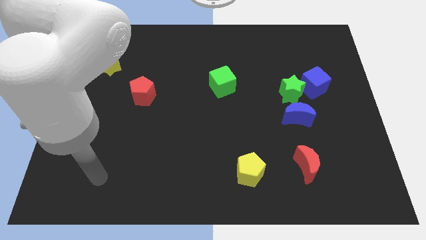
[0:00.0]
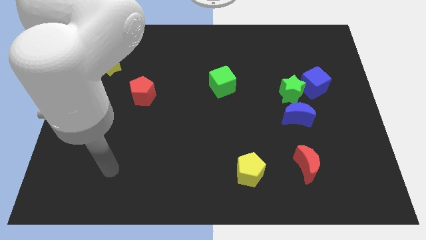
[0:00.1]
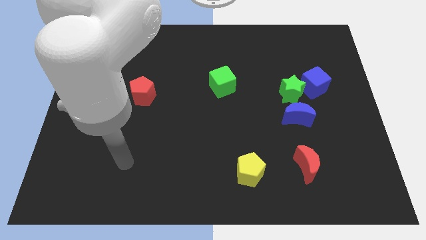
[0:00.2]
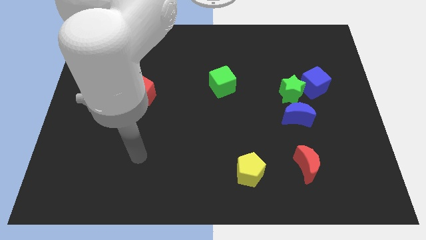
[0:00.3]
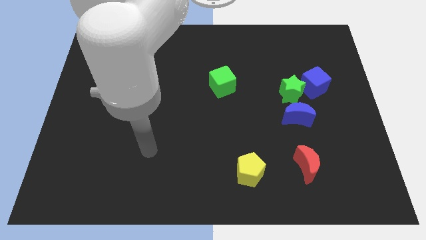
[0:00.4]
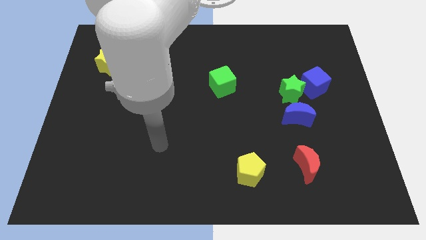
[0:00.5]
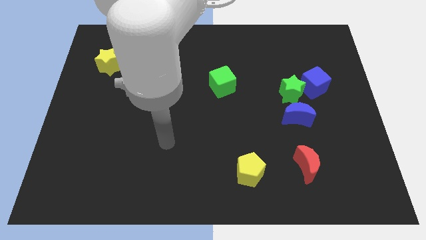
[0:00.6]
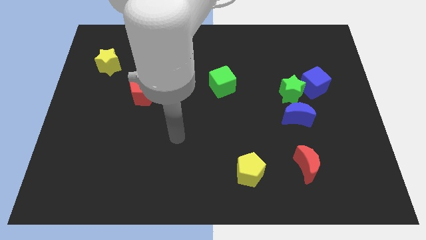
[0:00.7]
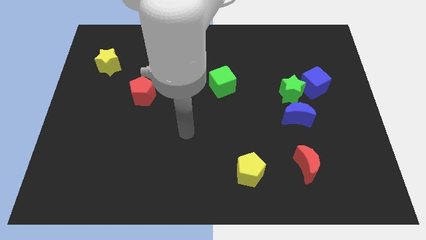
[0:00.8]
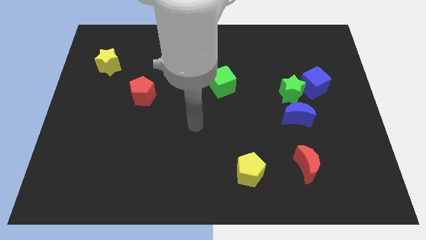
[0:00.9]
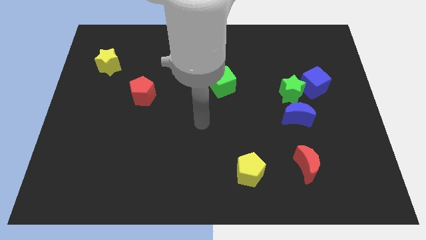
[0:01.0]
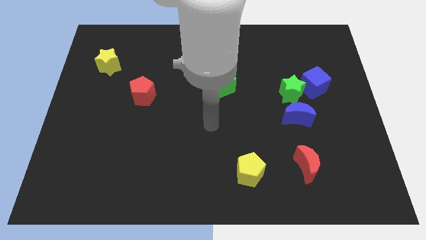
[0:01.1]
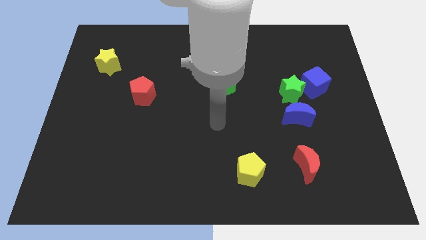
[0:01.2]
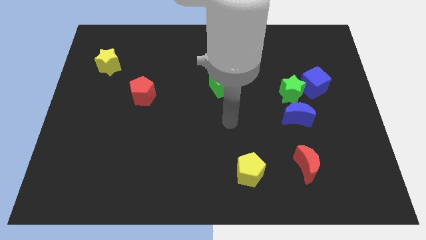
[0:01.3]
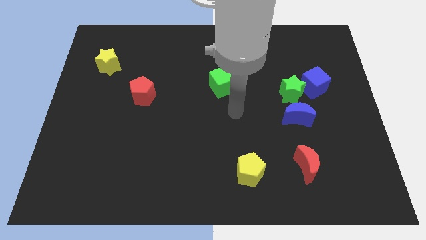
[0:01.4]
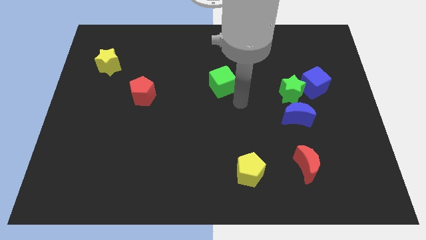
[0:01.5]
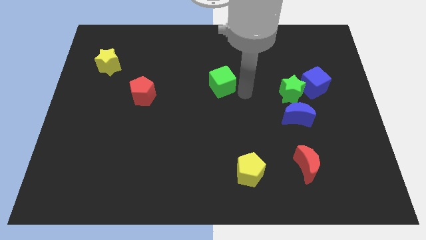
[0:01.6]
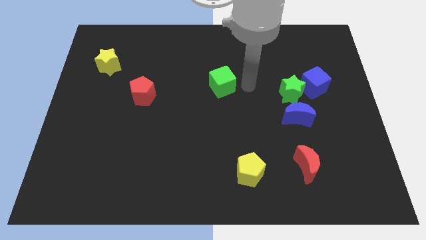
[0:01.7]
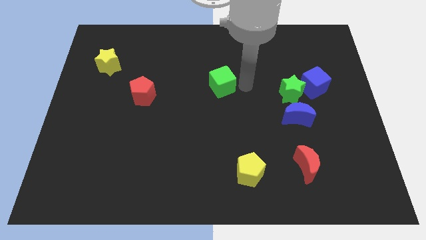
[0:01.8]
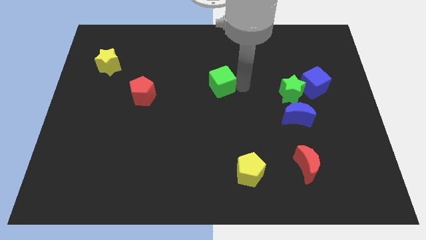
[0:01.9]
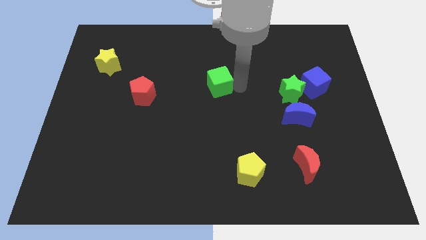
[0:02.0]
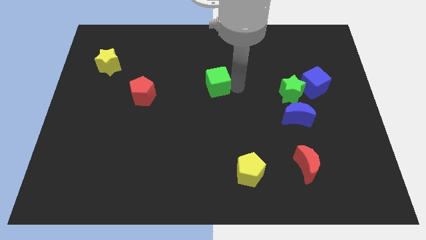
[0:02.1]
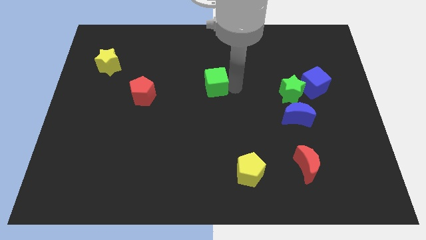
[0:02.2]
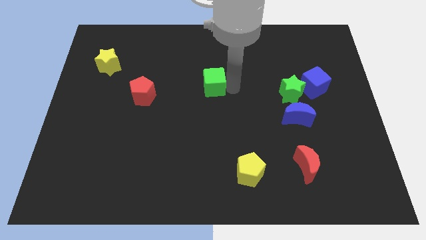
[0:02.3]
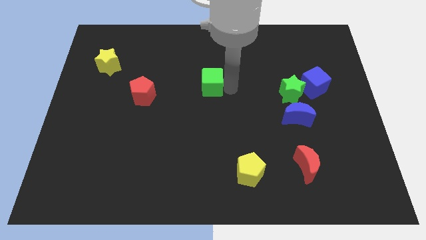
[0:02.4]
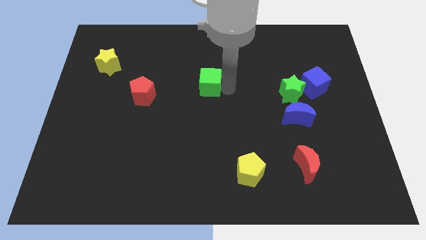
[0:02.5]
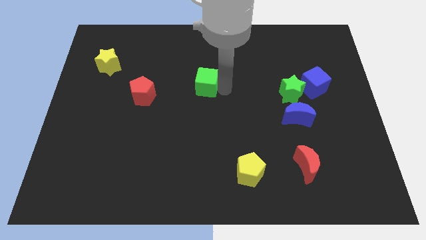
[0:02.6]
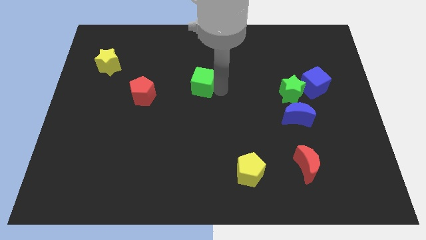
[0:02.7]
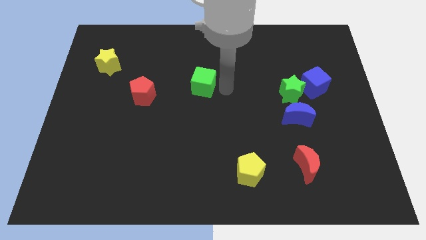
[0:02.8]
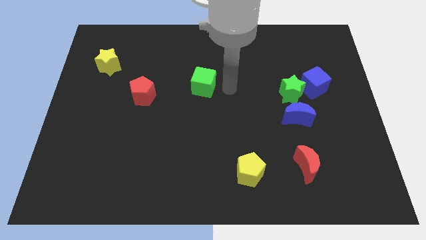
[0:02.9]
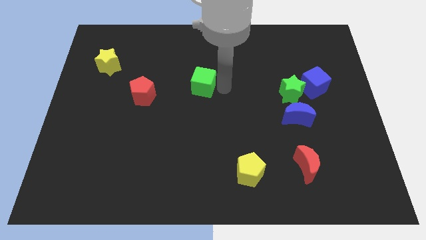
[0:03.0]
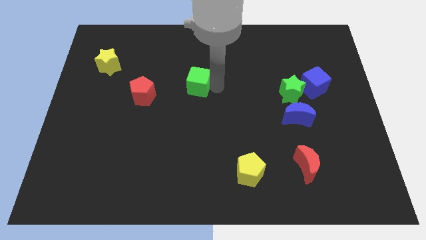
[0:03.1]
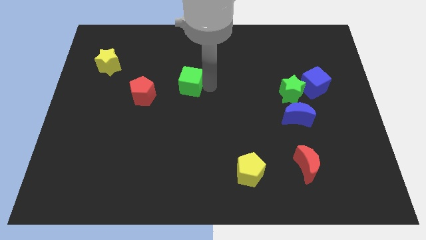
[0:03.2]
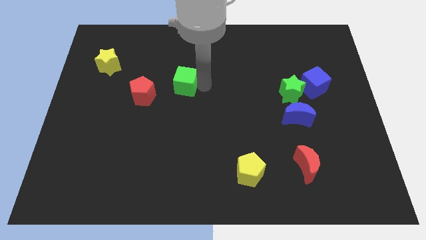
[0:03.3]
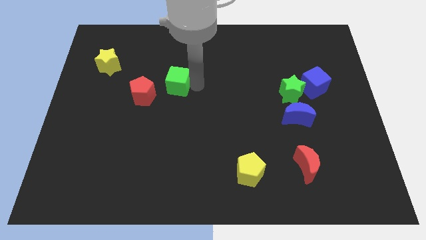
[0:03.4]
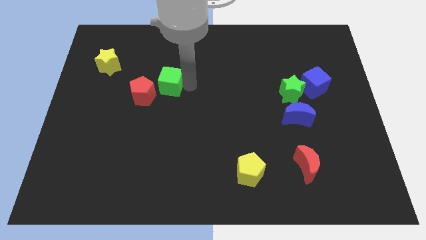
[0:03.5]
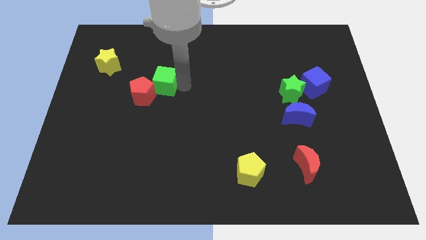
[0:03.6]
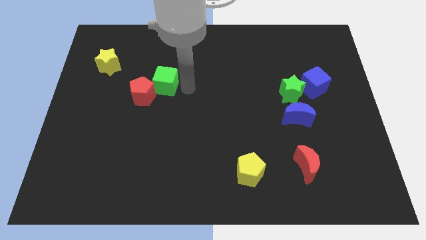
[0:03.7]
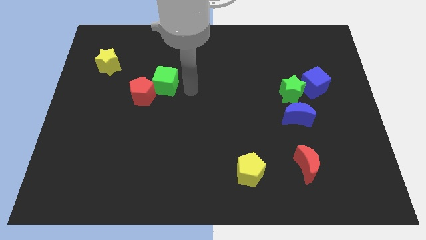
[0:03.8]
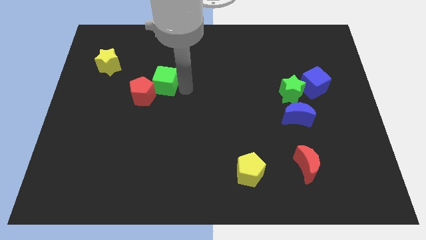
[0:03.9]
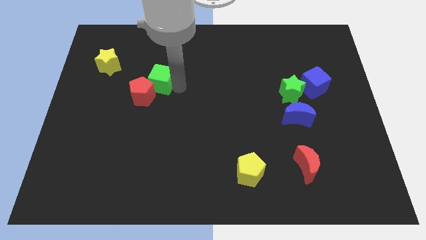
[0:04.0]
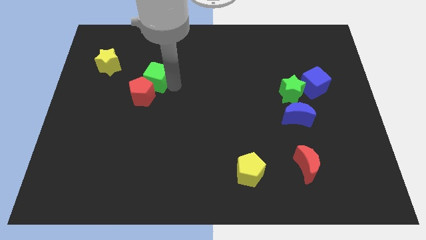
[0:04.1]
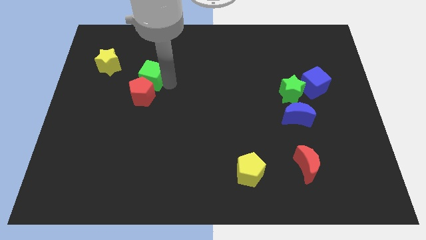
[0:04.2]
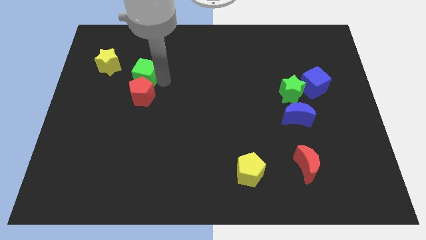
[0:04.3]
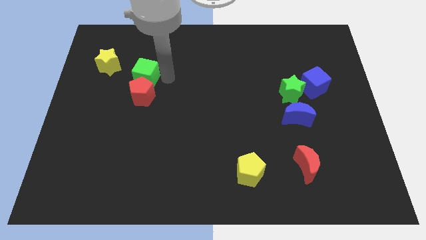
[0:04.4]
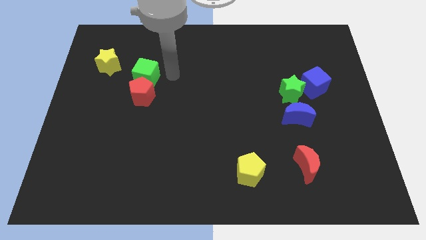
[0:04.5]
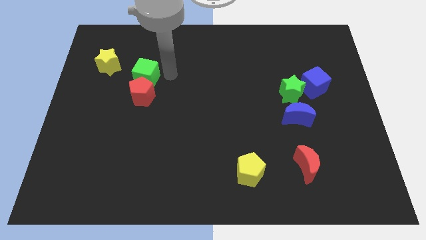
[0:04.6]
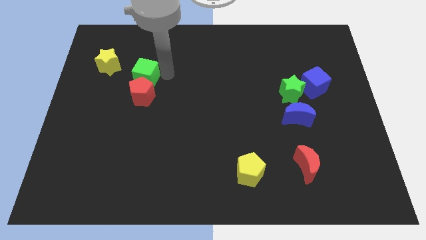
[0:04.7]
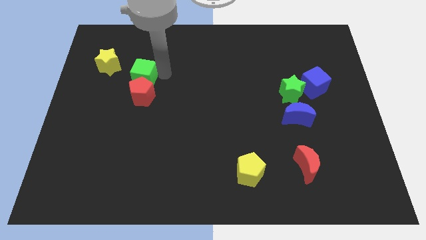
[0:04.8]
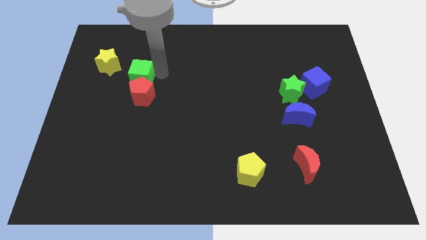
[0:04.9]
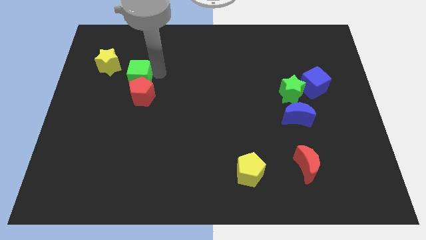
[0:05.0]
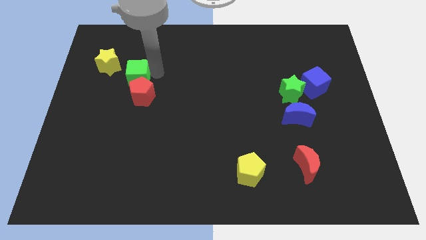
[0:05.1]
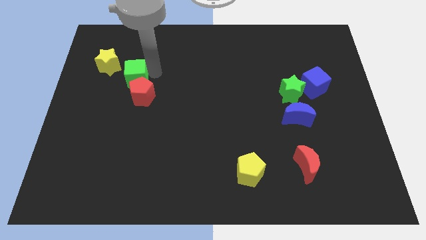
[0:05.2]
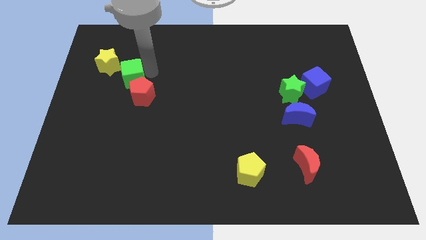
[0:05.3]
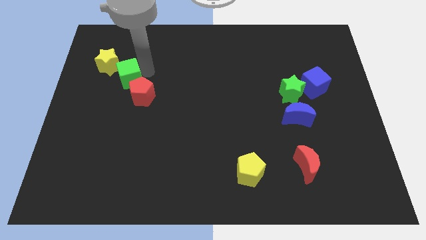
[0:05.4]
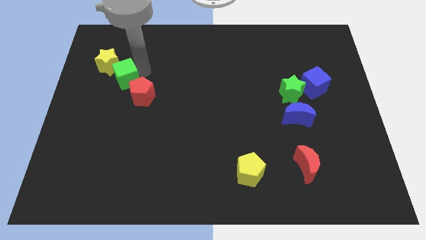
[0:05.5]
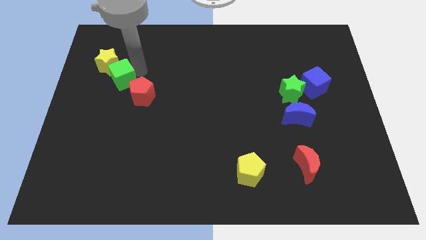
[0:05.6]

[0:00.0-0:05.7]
push the green cube below the yellow star

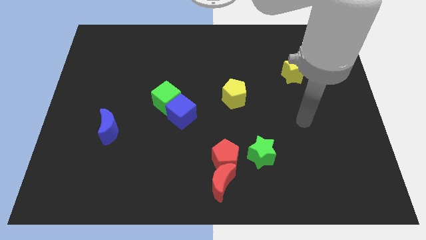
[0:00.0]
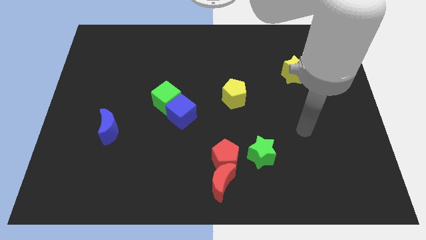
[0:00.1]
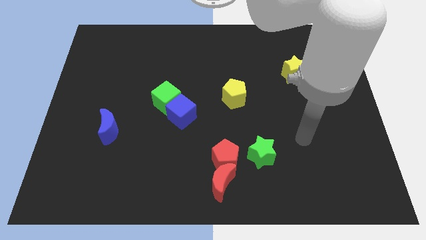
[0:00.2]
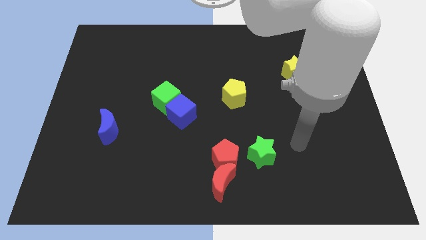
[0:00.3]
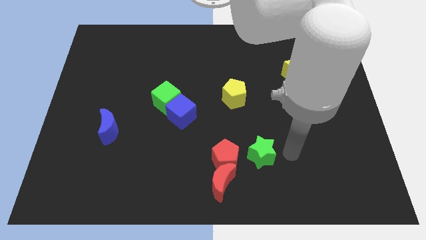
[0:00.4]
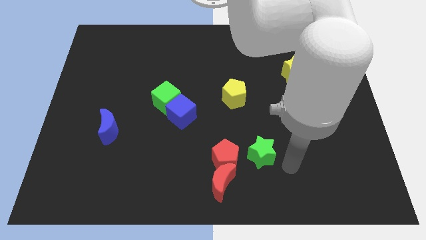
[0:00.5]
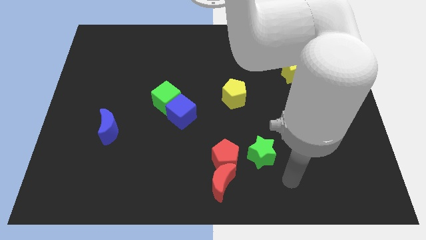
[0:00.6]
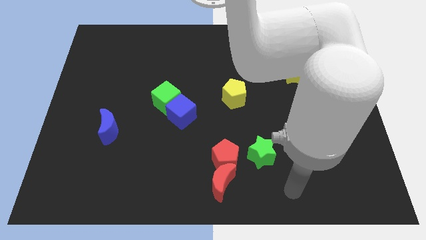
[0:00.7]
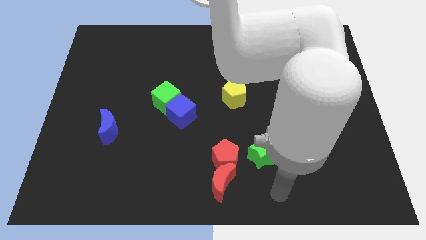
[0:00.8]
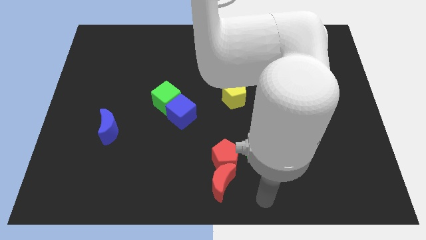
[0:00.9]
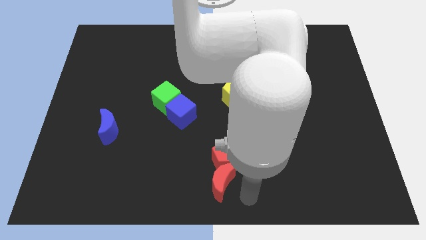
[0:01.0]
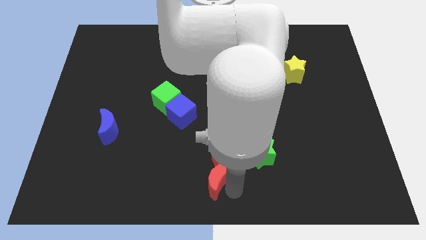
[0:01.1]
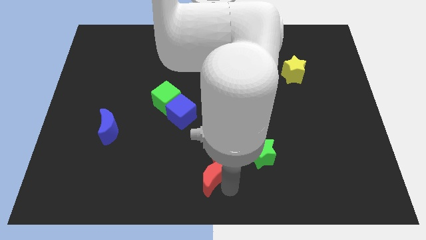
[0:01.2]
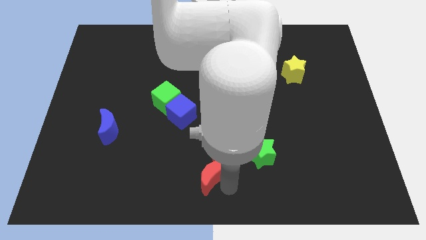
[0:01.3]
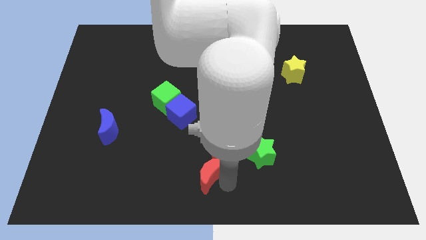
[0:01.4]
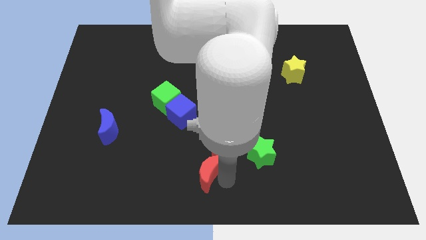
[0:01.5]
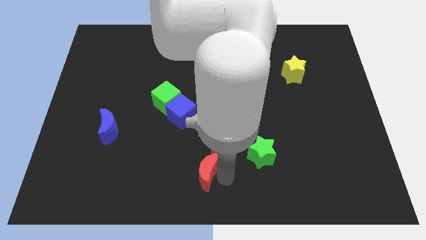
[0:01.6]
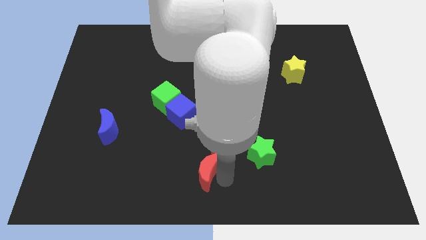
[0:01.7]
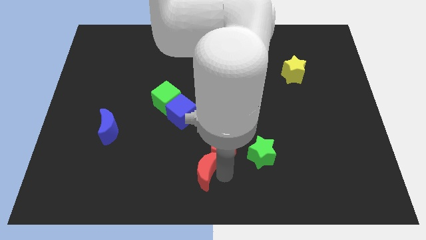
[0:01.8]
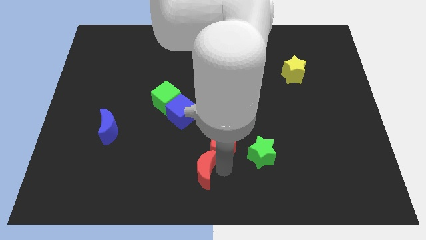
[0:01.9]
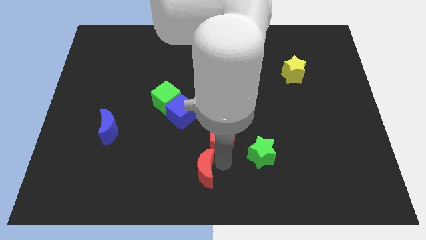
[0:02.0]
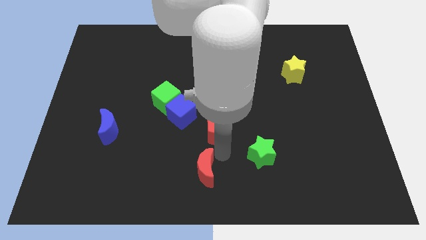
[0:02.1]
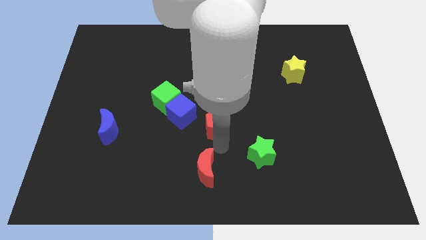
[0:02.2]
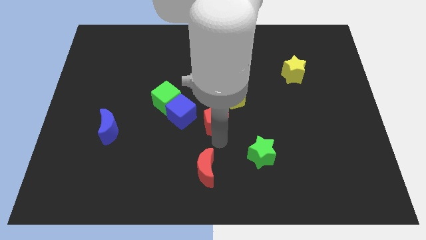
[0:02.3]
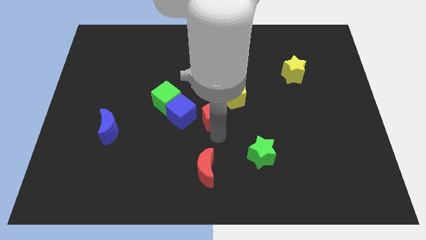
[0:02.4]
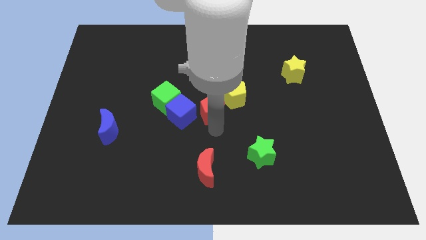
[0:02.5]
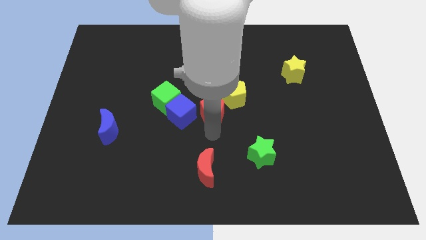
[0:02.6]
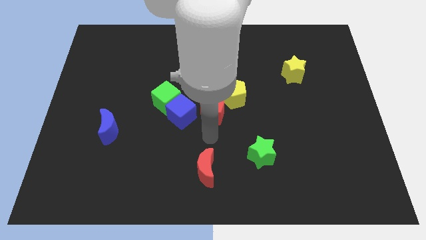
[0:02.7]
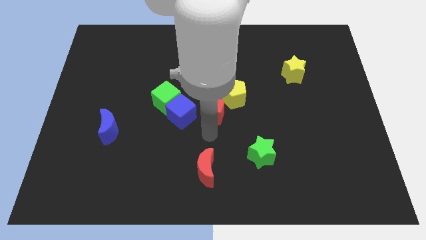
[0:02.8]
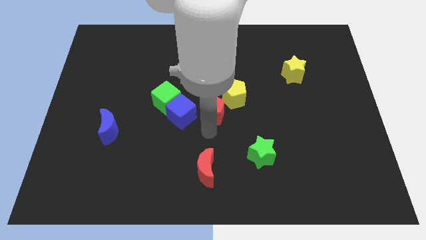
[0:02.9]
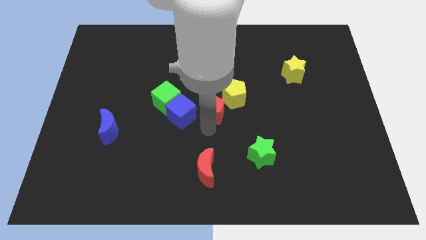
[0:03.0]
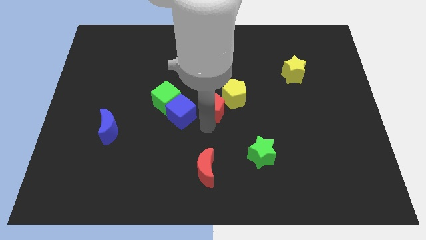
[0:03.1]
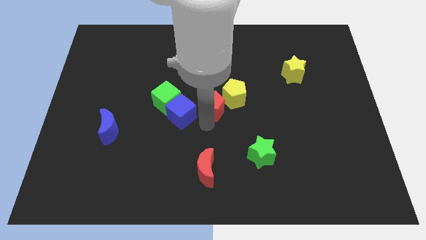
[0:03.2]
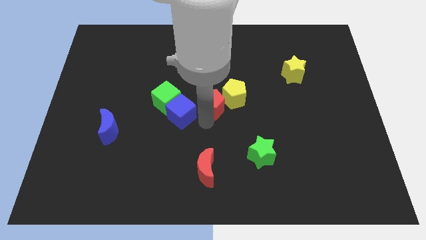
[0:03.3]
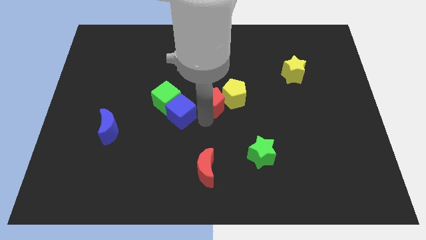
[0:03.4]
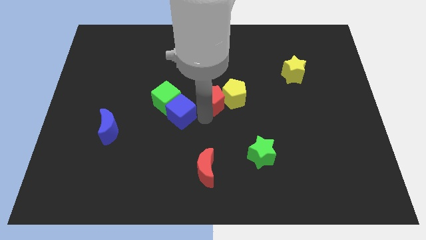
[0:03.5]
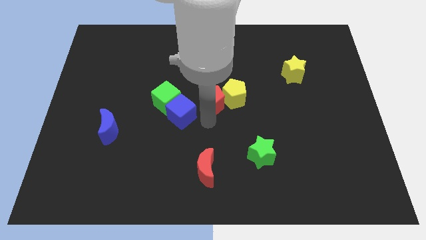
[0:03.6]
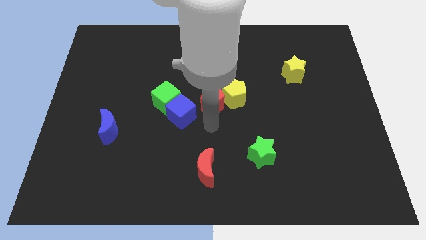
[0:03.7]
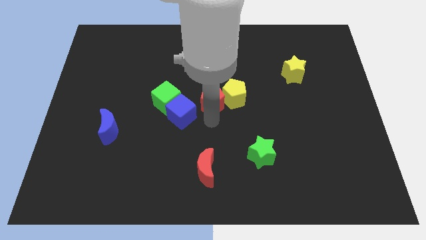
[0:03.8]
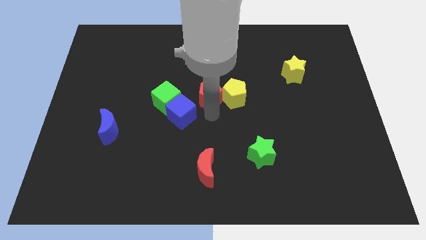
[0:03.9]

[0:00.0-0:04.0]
put the red pentagon diagonally up and to the left of the yellow pentagon
